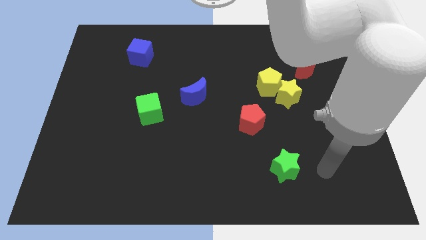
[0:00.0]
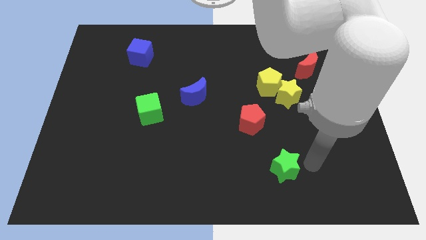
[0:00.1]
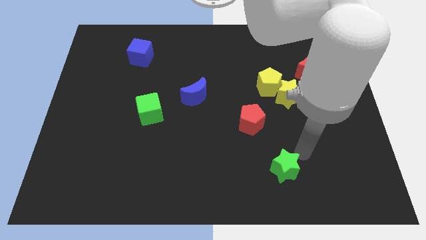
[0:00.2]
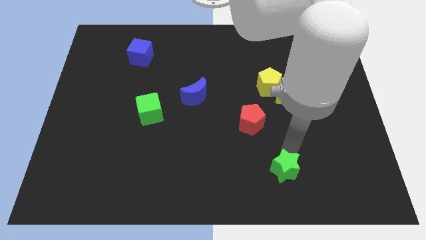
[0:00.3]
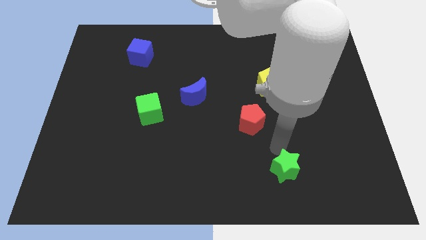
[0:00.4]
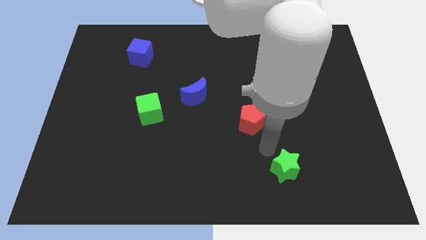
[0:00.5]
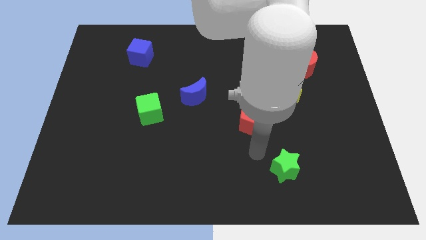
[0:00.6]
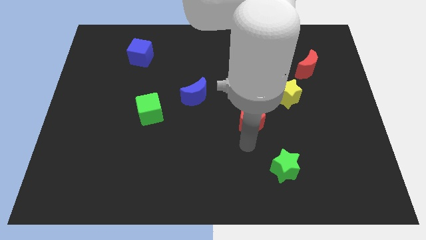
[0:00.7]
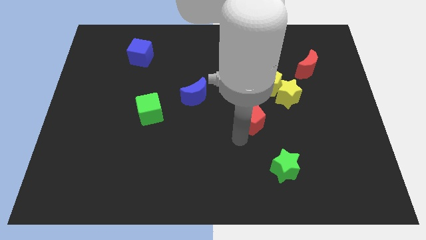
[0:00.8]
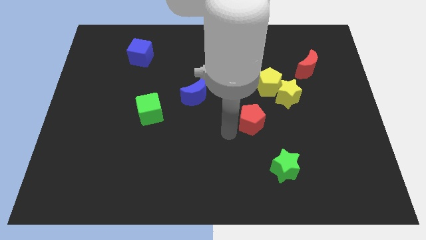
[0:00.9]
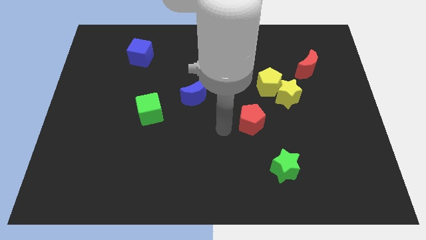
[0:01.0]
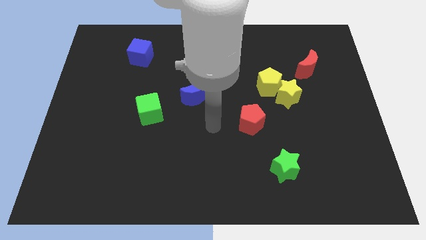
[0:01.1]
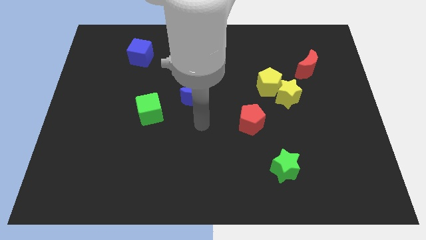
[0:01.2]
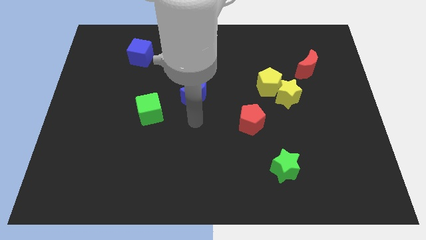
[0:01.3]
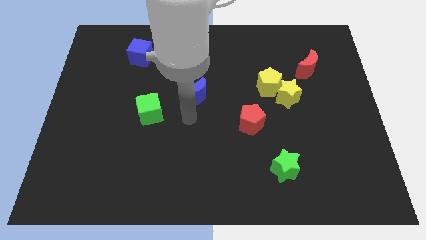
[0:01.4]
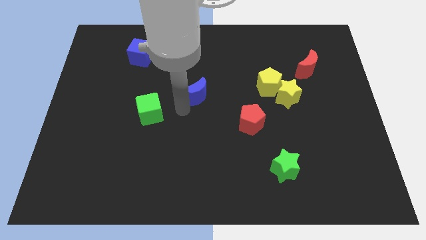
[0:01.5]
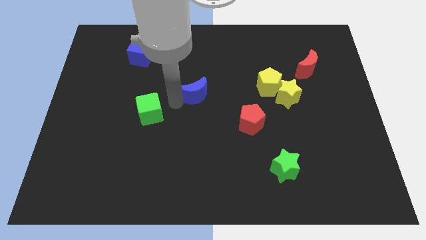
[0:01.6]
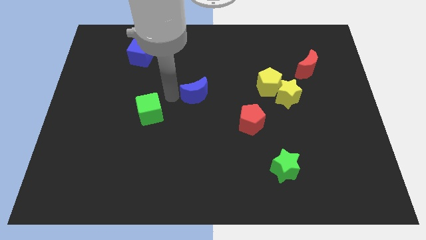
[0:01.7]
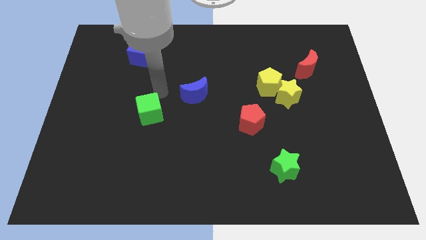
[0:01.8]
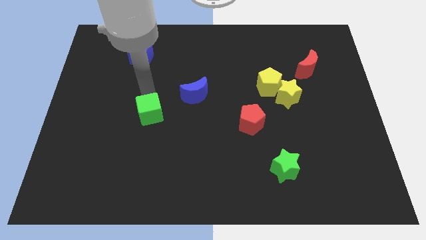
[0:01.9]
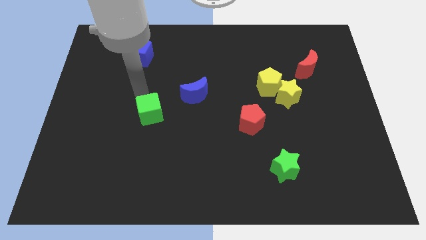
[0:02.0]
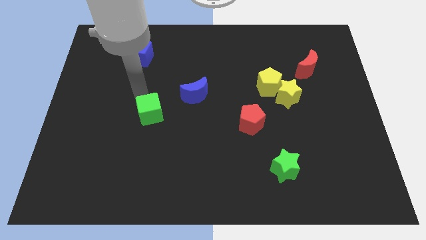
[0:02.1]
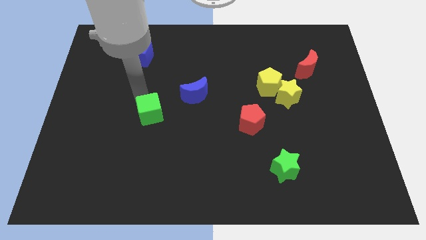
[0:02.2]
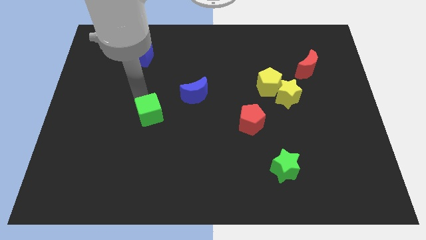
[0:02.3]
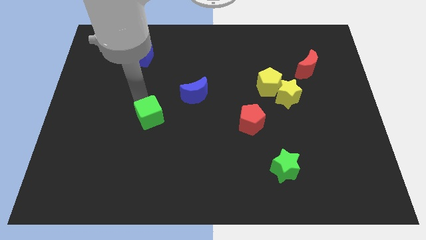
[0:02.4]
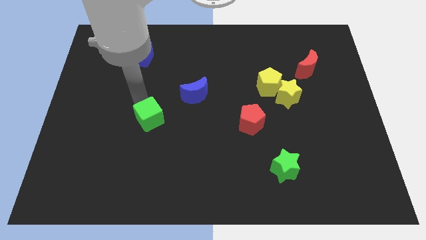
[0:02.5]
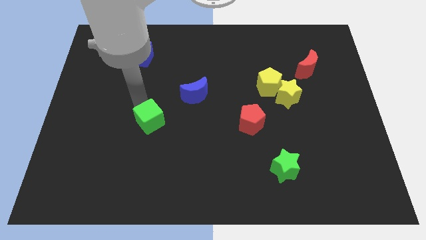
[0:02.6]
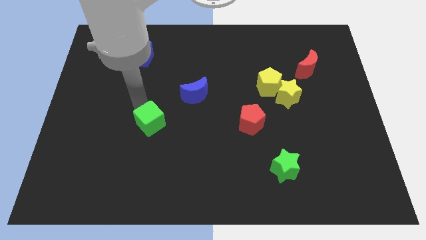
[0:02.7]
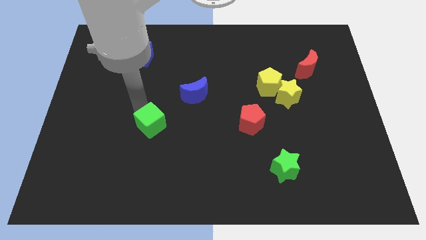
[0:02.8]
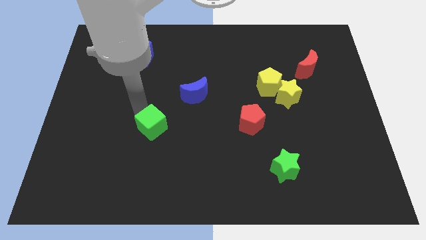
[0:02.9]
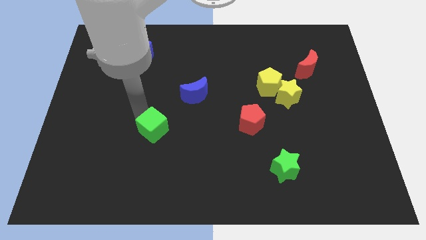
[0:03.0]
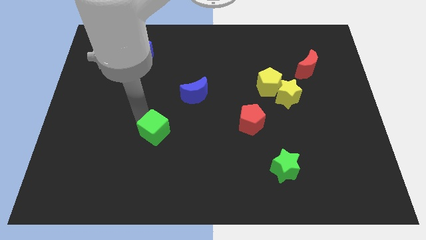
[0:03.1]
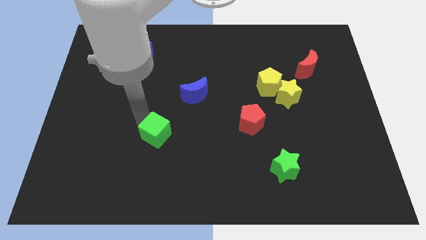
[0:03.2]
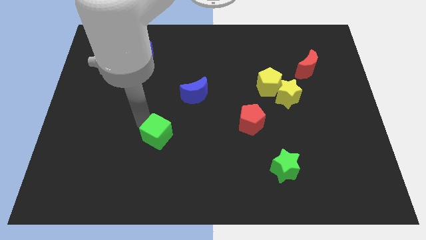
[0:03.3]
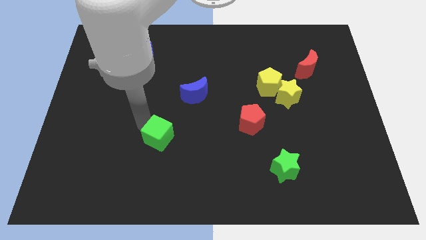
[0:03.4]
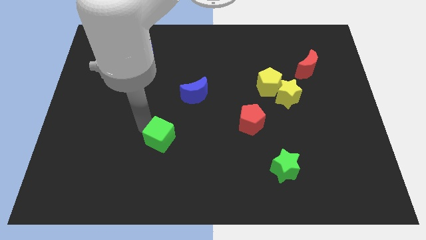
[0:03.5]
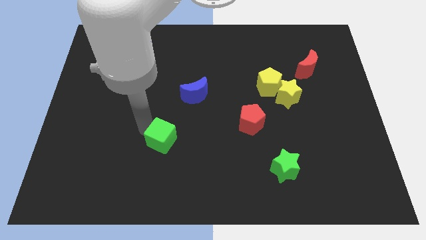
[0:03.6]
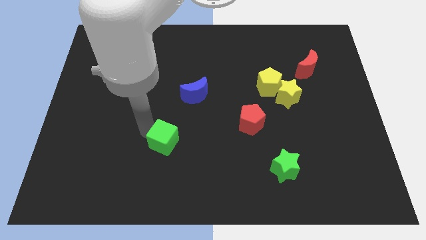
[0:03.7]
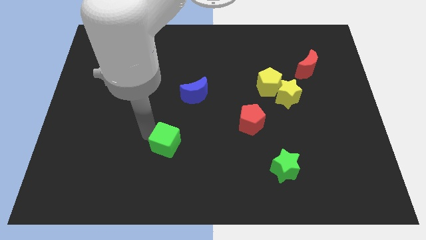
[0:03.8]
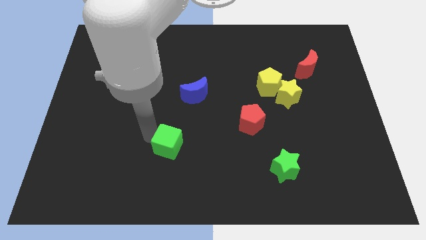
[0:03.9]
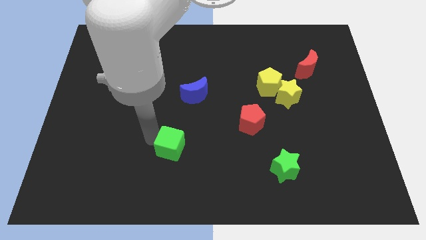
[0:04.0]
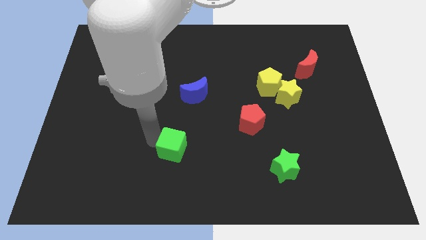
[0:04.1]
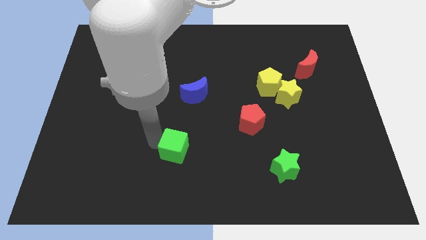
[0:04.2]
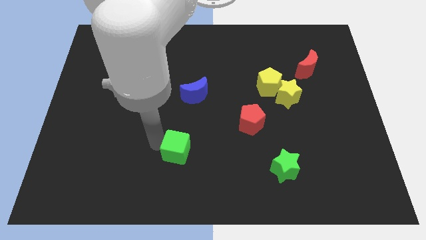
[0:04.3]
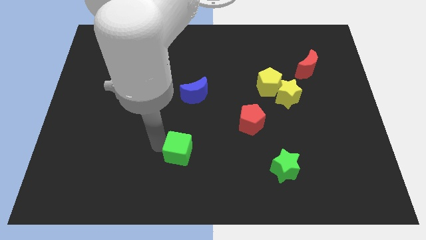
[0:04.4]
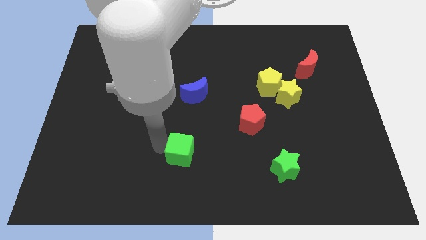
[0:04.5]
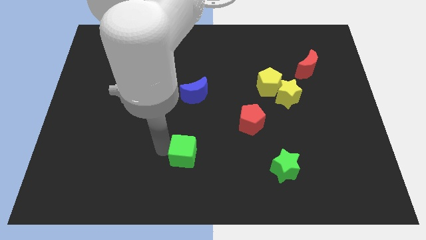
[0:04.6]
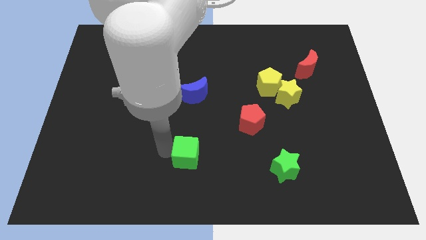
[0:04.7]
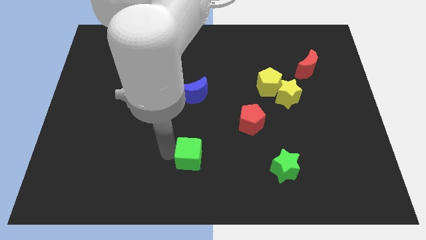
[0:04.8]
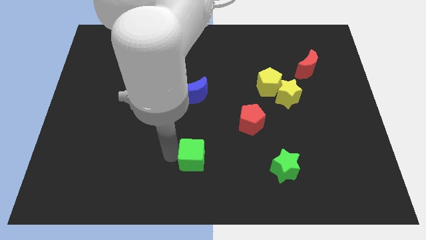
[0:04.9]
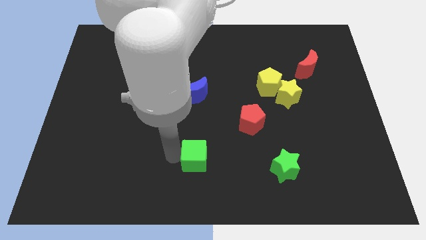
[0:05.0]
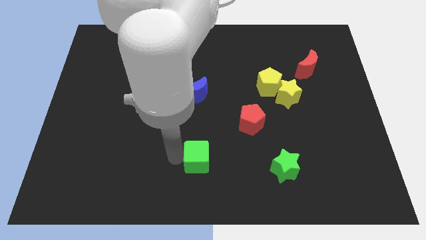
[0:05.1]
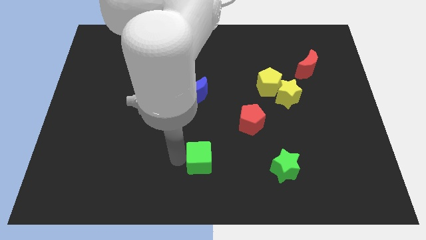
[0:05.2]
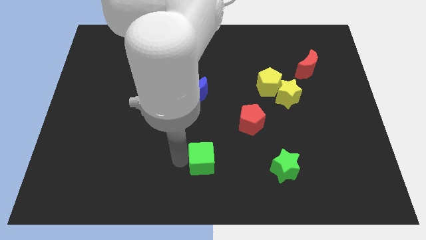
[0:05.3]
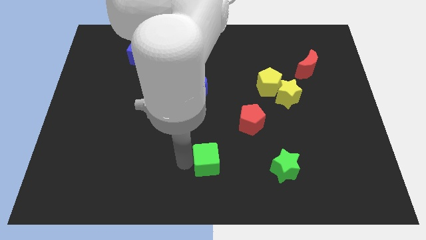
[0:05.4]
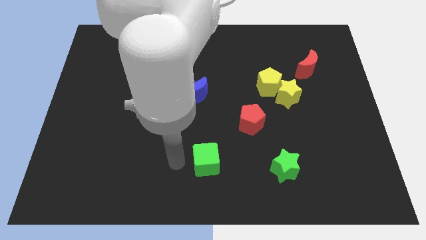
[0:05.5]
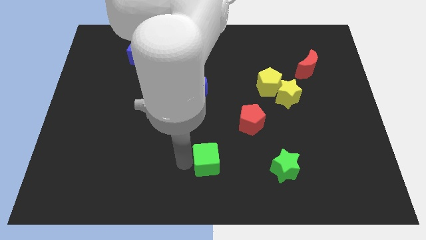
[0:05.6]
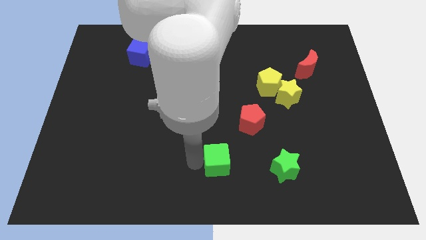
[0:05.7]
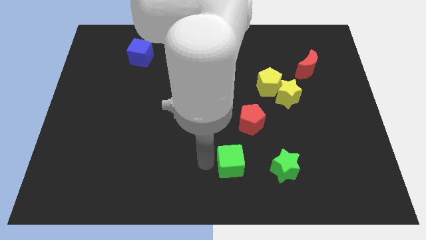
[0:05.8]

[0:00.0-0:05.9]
put the green cube below the red pentagon

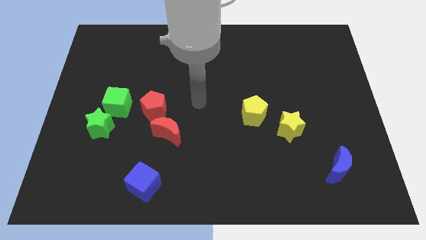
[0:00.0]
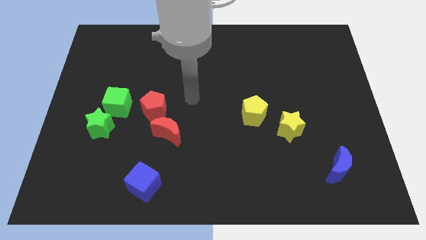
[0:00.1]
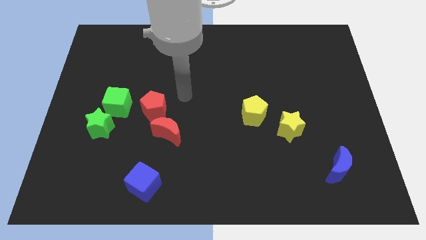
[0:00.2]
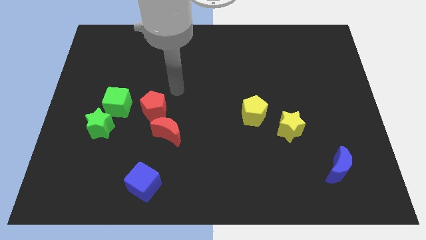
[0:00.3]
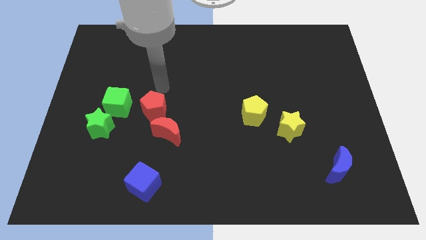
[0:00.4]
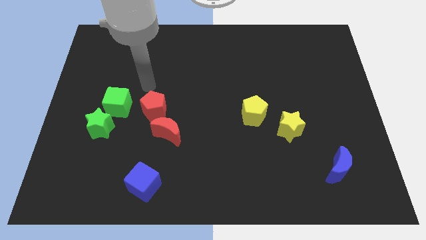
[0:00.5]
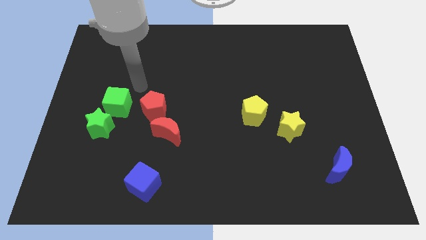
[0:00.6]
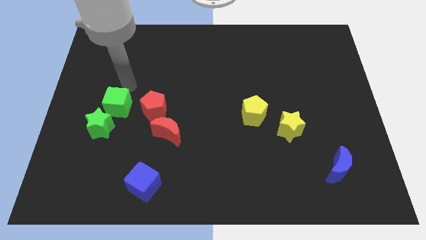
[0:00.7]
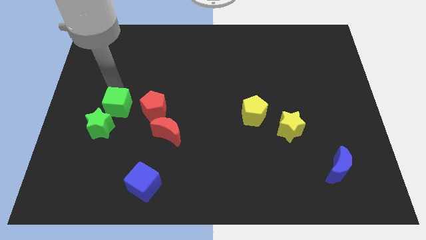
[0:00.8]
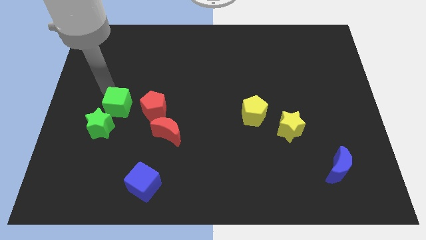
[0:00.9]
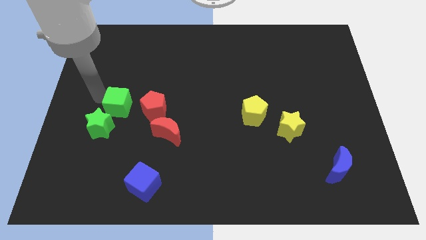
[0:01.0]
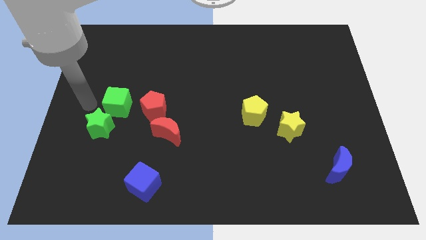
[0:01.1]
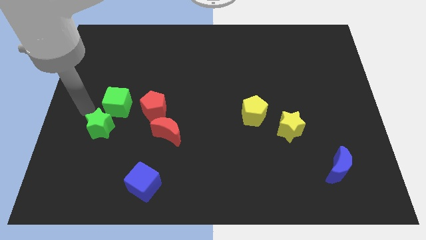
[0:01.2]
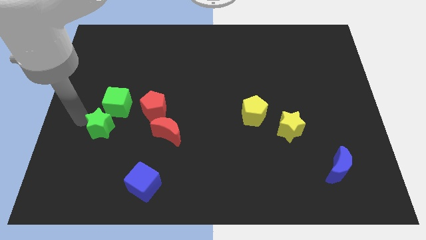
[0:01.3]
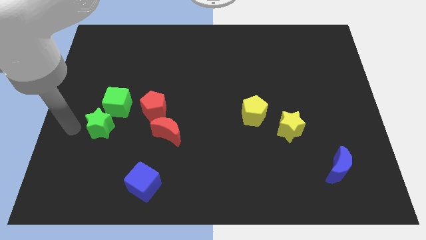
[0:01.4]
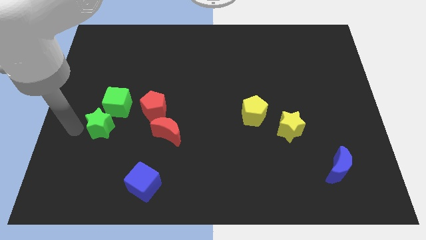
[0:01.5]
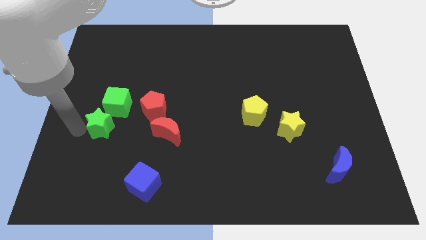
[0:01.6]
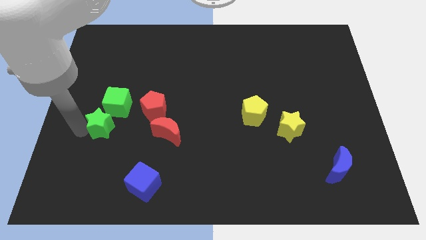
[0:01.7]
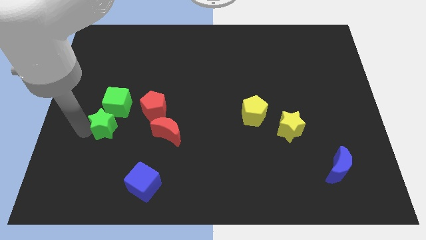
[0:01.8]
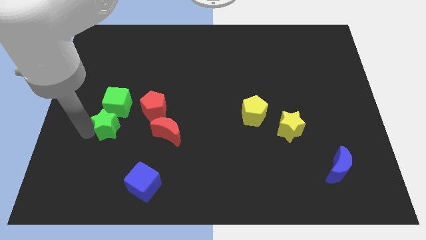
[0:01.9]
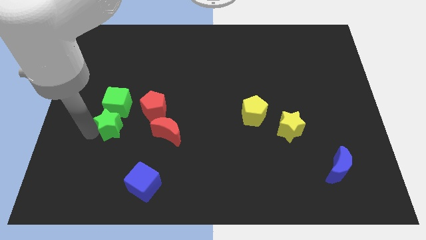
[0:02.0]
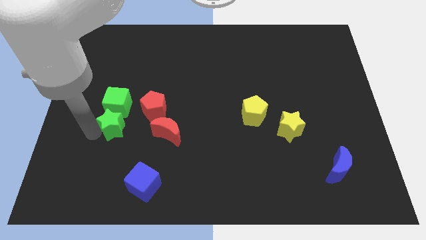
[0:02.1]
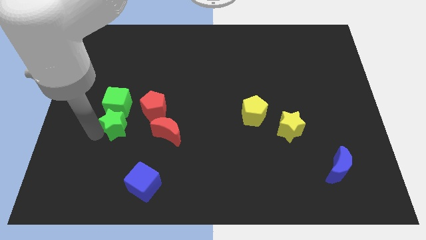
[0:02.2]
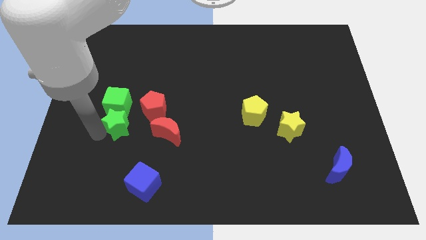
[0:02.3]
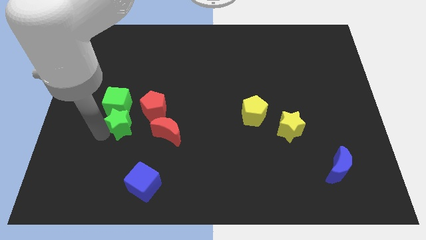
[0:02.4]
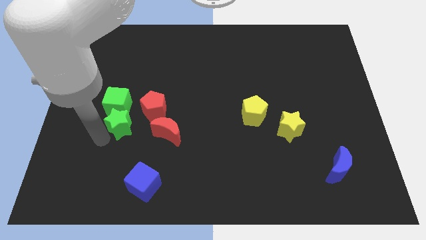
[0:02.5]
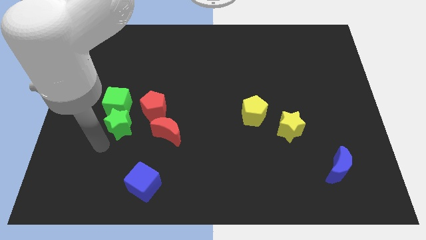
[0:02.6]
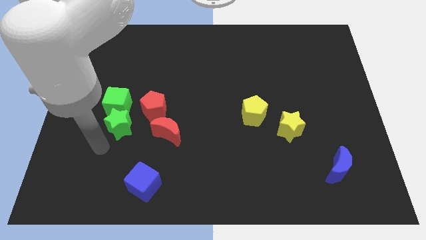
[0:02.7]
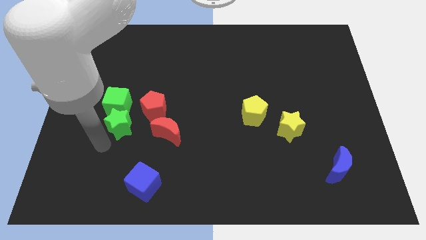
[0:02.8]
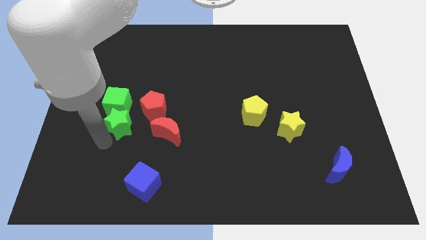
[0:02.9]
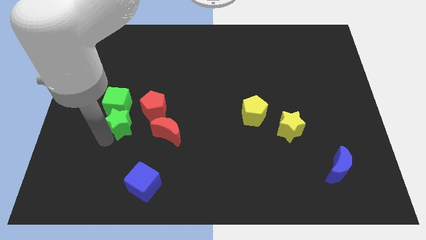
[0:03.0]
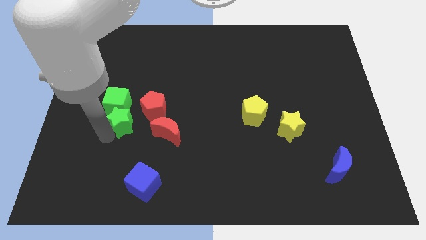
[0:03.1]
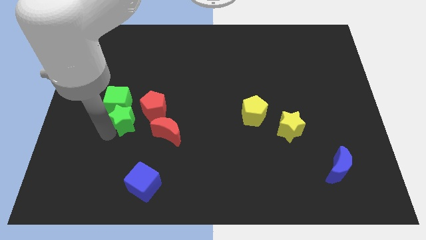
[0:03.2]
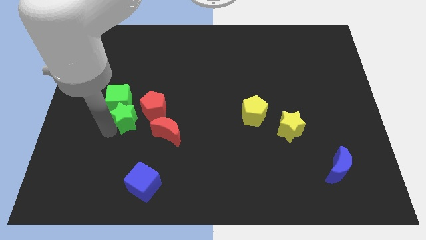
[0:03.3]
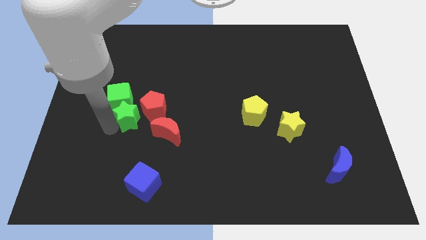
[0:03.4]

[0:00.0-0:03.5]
put the green star to the top left side of the red moon
